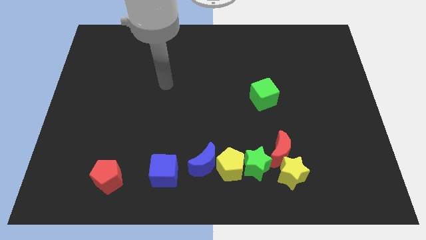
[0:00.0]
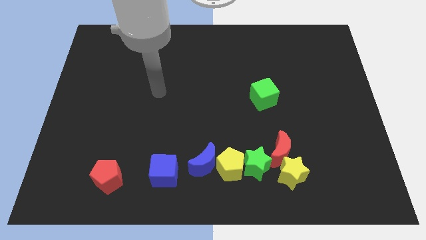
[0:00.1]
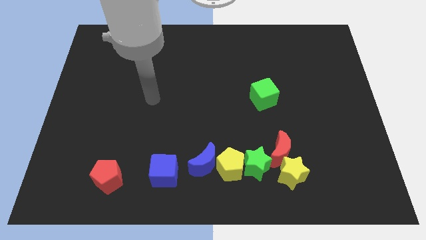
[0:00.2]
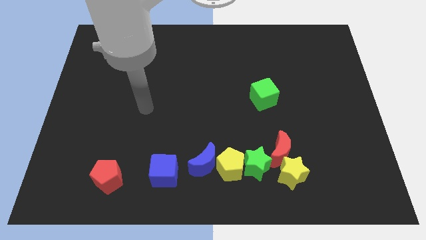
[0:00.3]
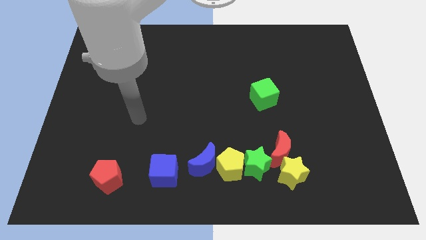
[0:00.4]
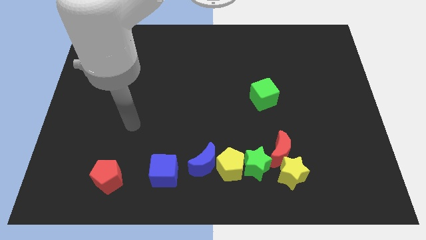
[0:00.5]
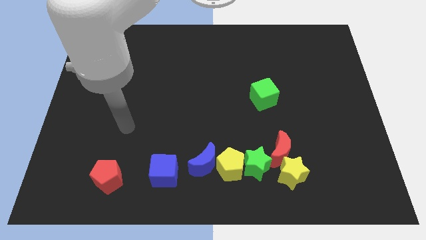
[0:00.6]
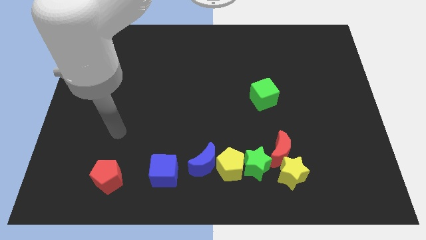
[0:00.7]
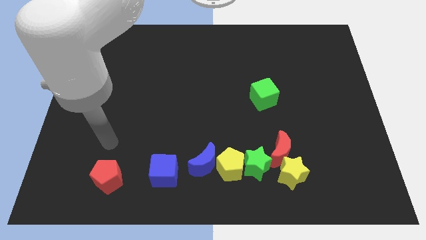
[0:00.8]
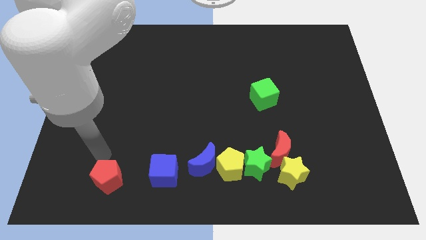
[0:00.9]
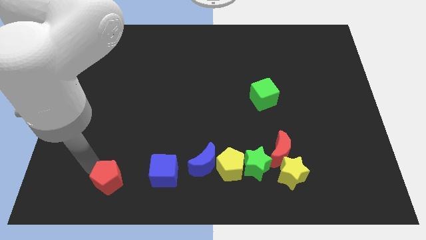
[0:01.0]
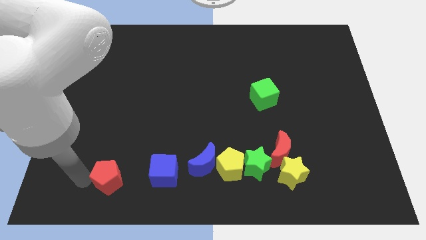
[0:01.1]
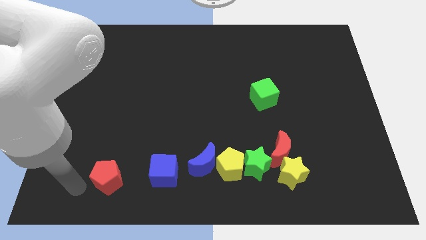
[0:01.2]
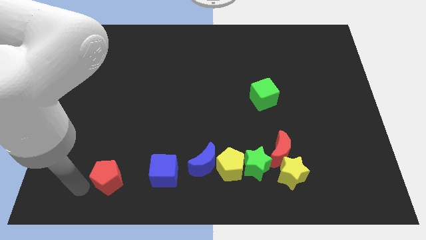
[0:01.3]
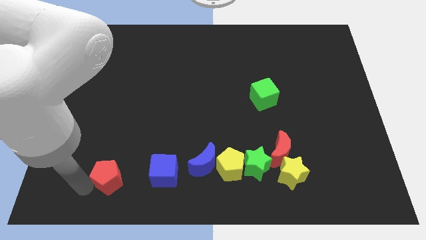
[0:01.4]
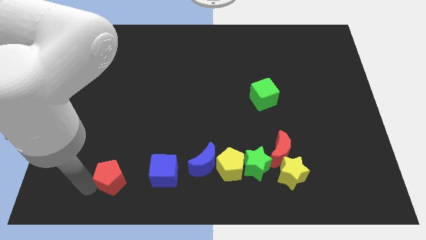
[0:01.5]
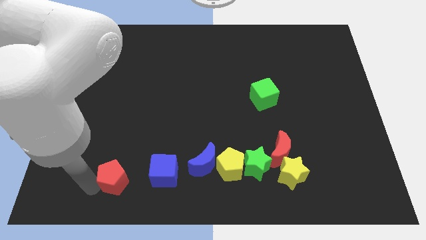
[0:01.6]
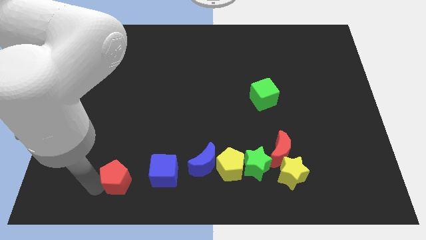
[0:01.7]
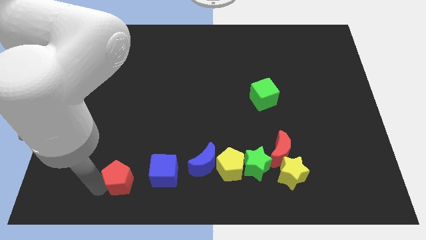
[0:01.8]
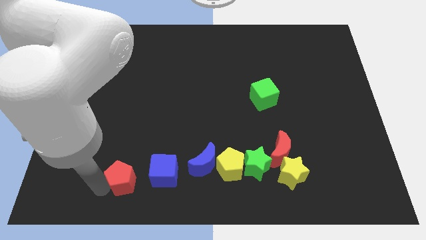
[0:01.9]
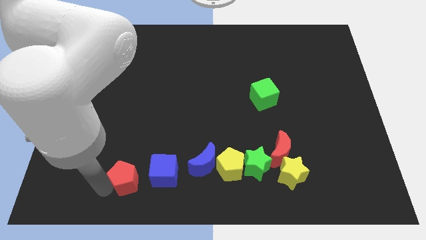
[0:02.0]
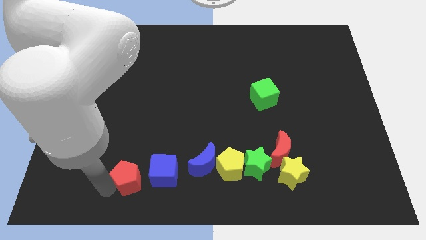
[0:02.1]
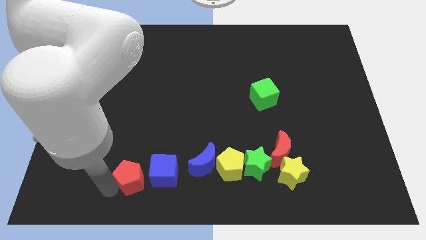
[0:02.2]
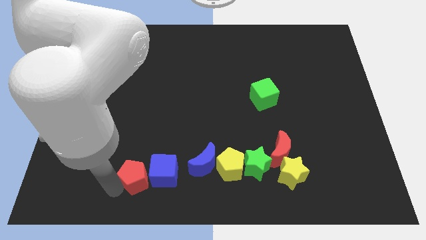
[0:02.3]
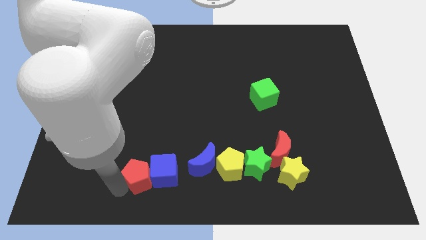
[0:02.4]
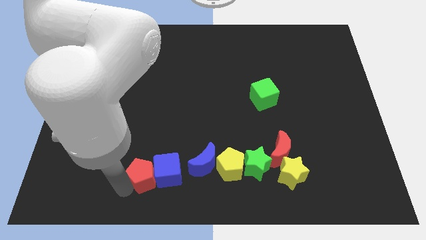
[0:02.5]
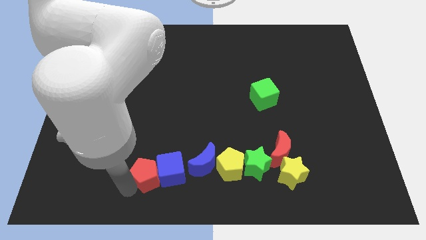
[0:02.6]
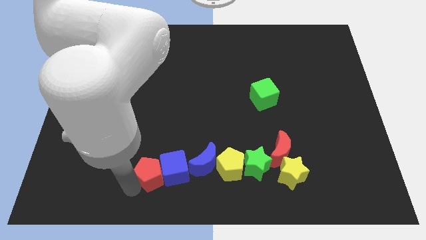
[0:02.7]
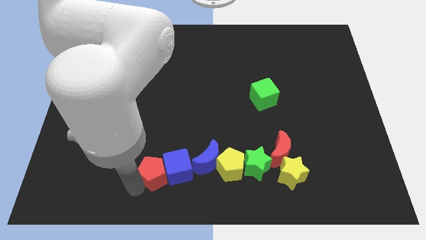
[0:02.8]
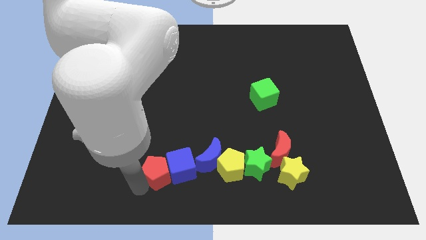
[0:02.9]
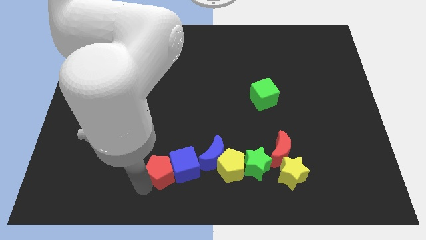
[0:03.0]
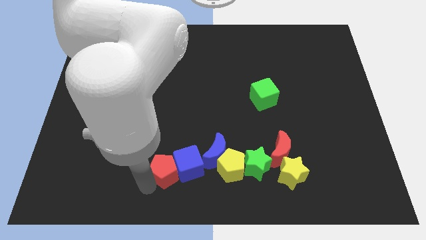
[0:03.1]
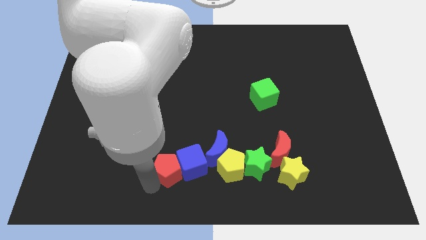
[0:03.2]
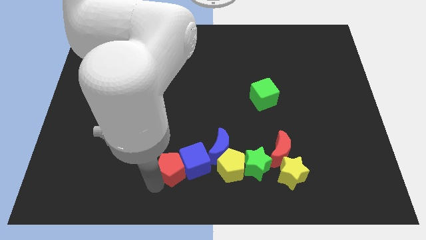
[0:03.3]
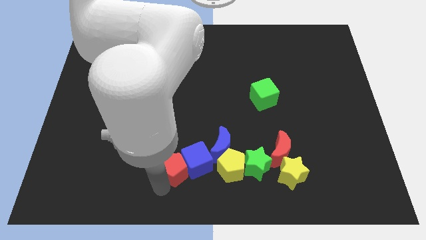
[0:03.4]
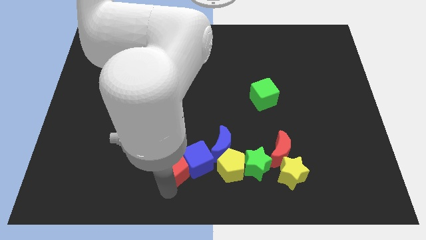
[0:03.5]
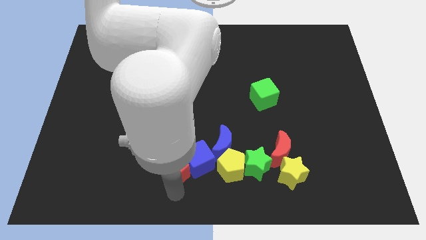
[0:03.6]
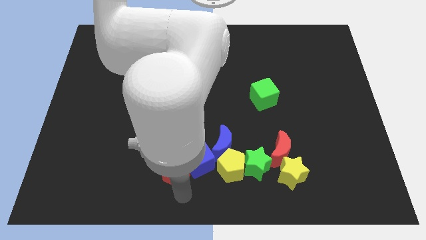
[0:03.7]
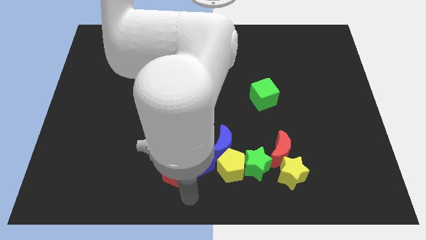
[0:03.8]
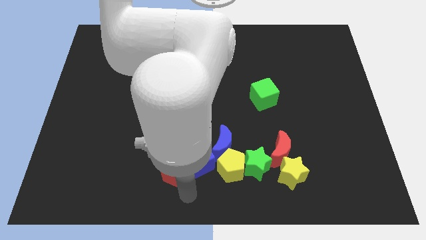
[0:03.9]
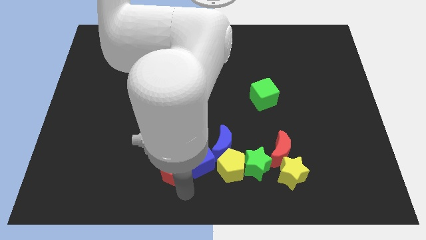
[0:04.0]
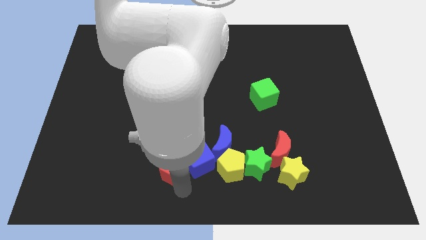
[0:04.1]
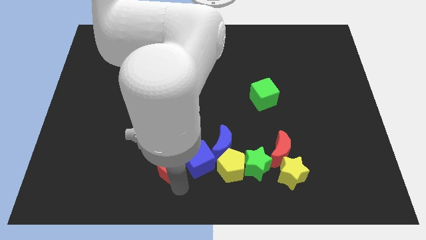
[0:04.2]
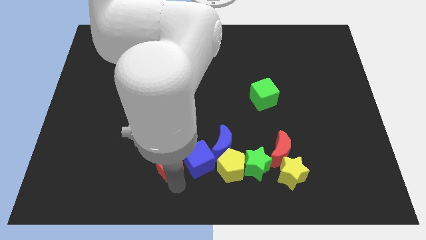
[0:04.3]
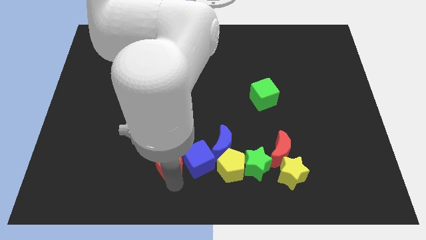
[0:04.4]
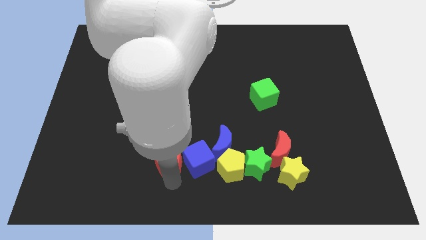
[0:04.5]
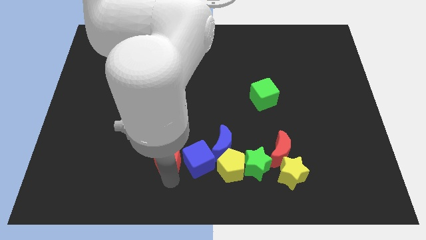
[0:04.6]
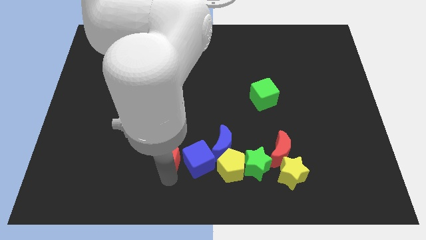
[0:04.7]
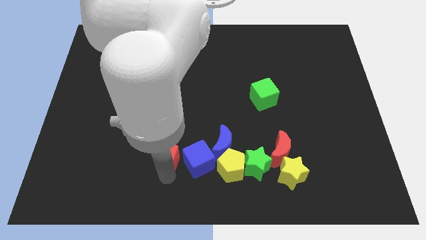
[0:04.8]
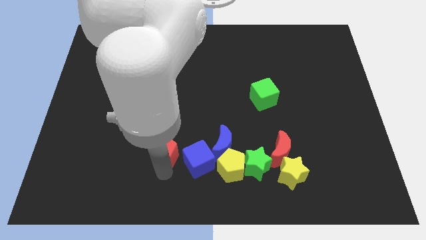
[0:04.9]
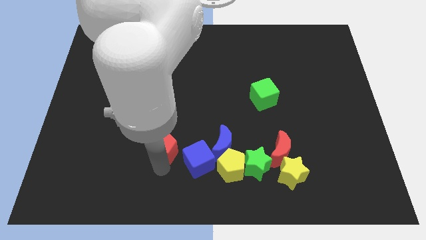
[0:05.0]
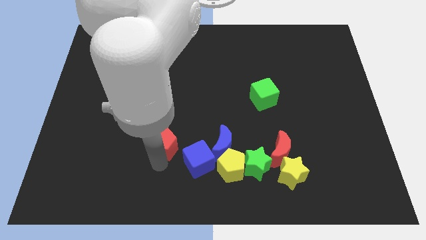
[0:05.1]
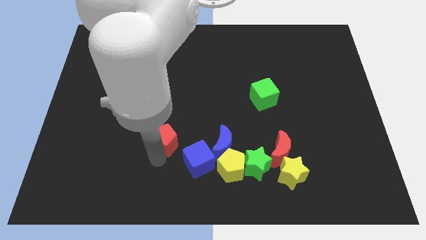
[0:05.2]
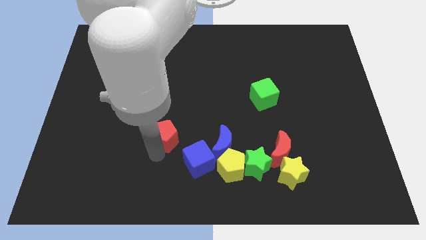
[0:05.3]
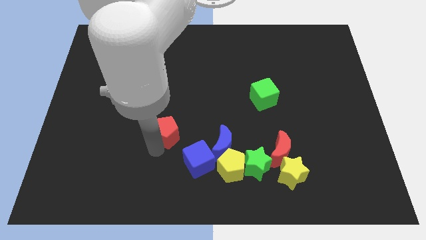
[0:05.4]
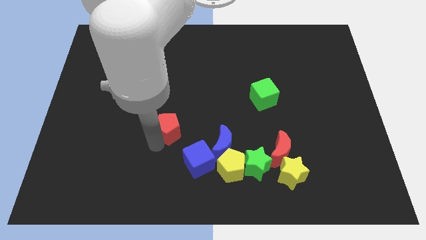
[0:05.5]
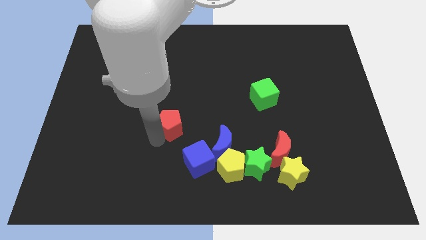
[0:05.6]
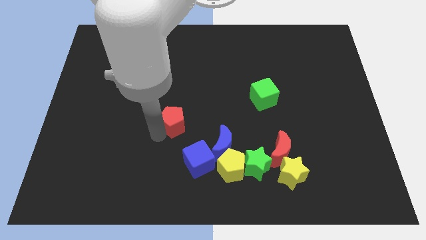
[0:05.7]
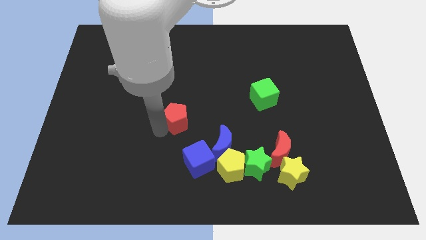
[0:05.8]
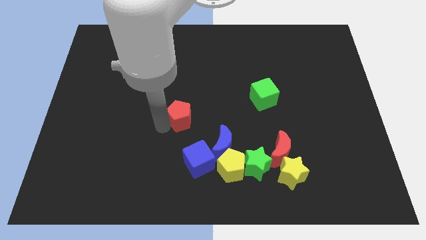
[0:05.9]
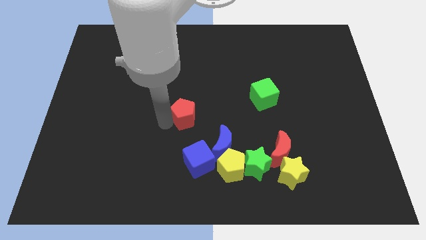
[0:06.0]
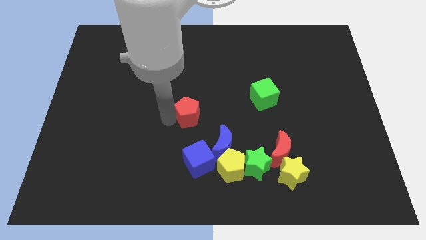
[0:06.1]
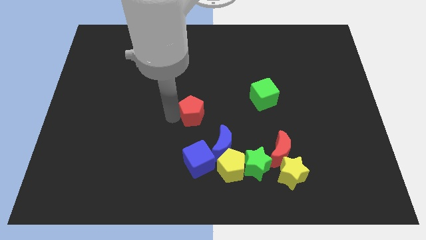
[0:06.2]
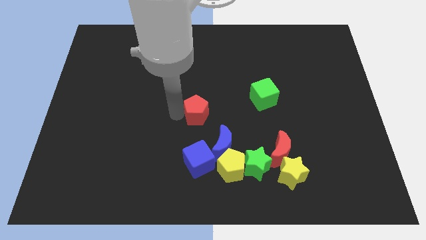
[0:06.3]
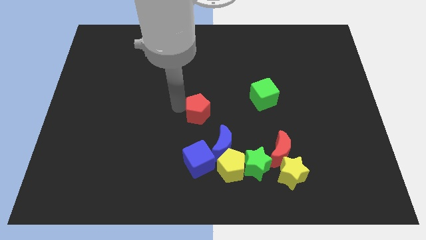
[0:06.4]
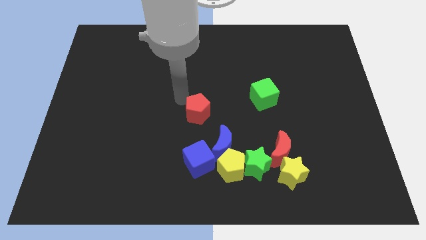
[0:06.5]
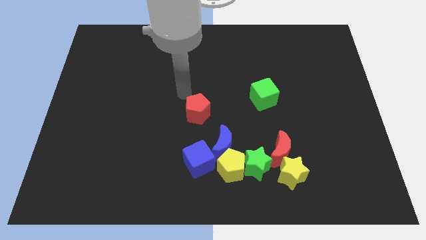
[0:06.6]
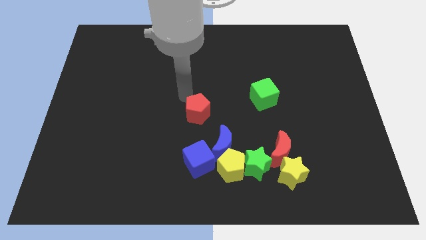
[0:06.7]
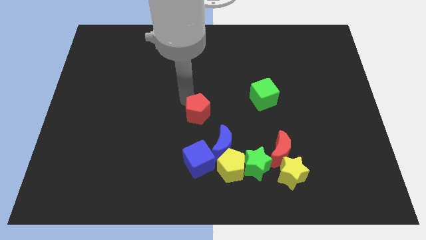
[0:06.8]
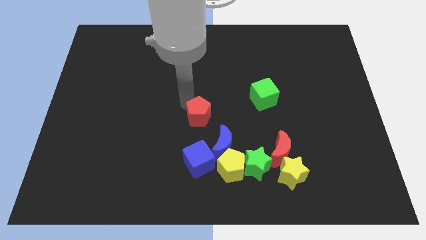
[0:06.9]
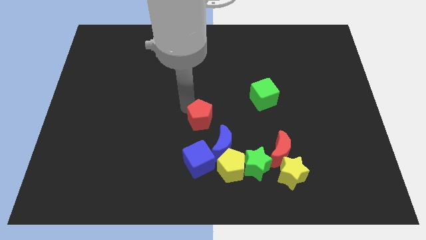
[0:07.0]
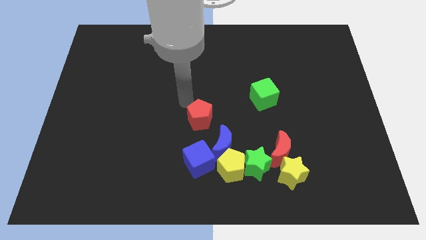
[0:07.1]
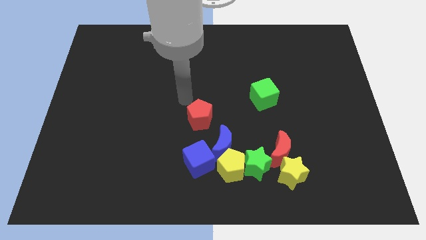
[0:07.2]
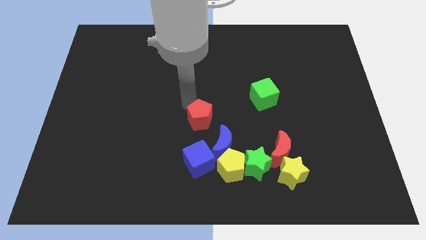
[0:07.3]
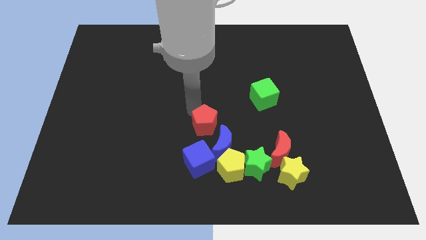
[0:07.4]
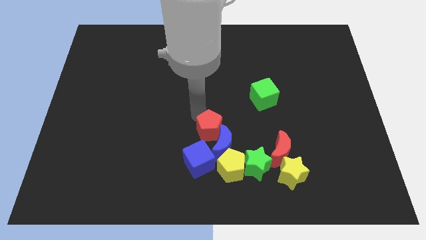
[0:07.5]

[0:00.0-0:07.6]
slide the red pentagon next to the blue moon

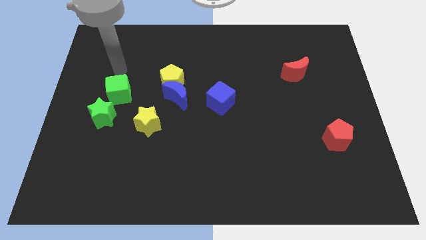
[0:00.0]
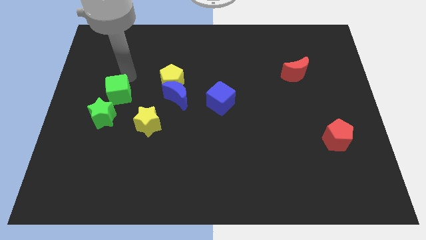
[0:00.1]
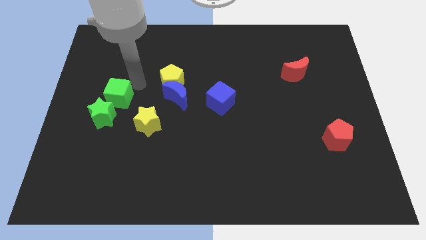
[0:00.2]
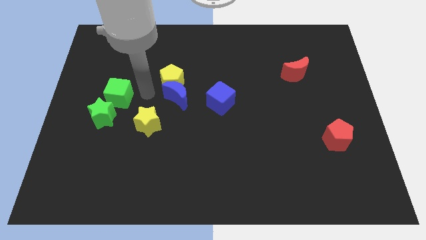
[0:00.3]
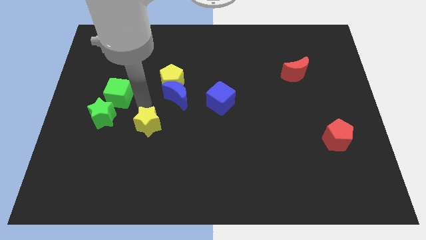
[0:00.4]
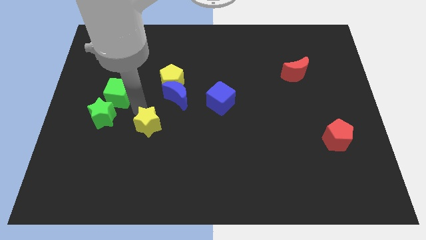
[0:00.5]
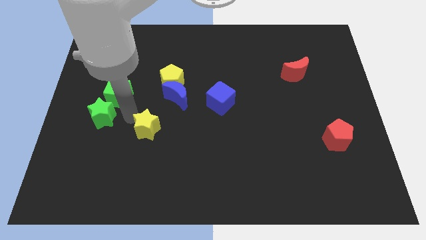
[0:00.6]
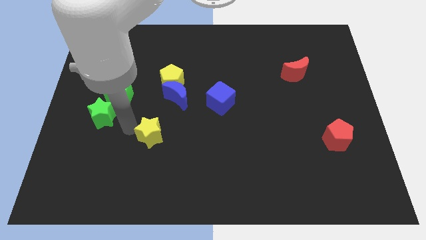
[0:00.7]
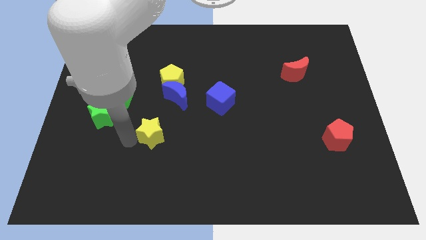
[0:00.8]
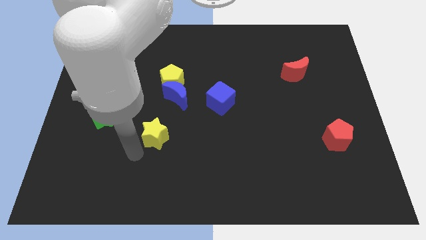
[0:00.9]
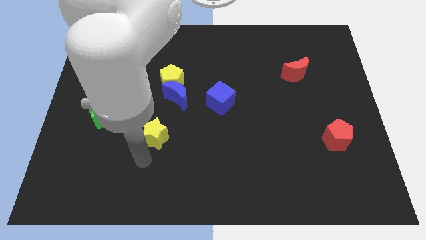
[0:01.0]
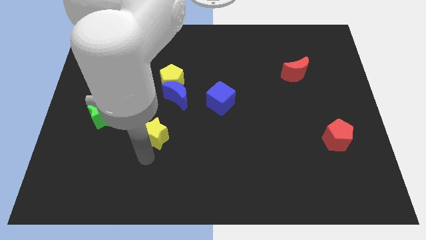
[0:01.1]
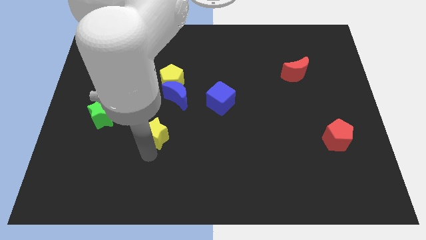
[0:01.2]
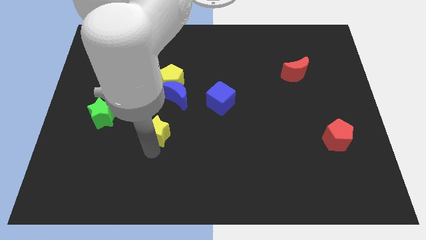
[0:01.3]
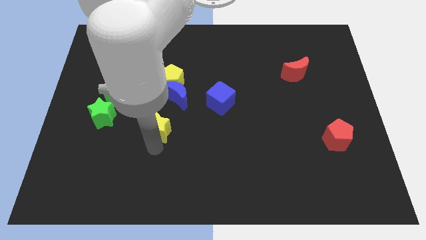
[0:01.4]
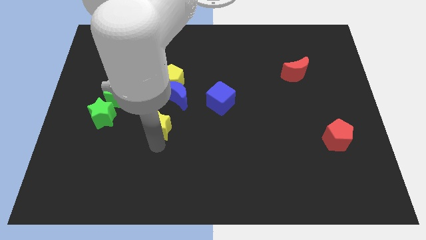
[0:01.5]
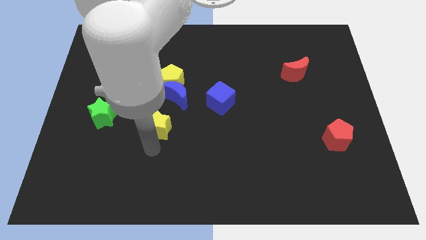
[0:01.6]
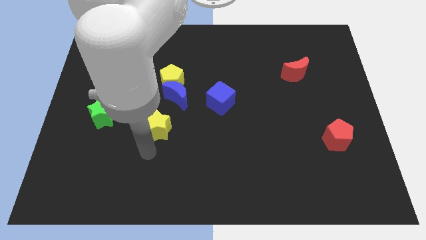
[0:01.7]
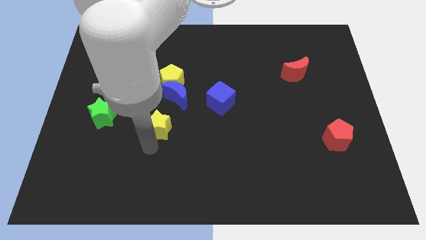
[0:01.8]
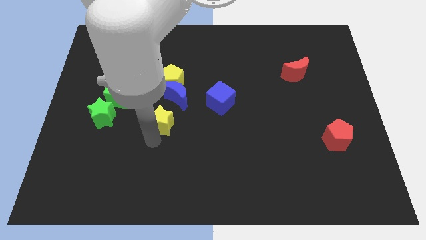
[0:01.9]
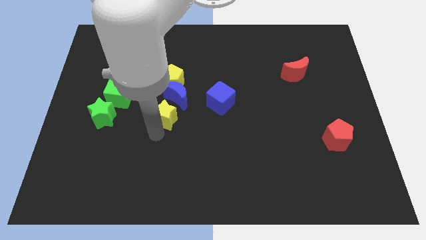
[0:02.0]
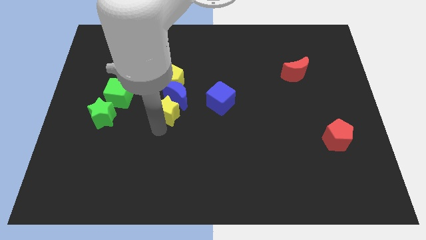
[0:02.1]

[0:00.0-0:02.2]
put the yellow star close to the blue moon
